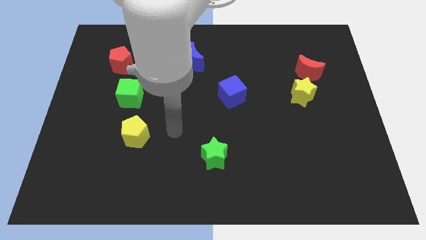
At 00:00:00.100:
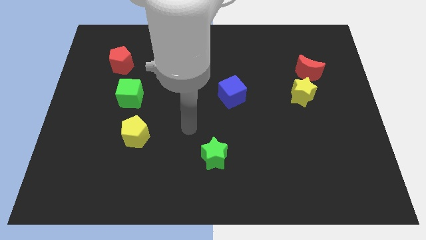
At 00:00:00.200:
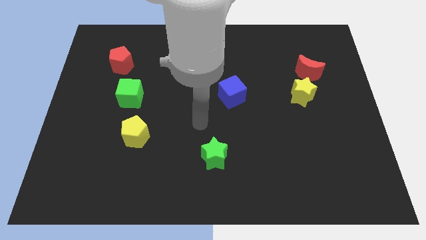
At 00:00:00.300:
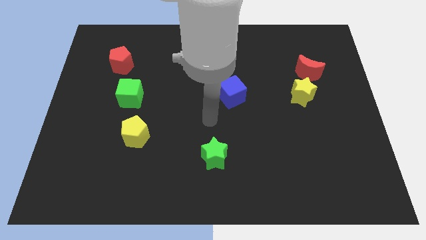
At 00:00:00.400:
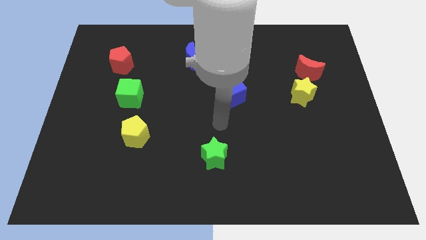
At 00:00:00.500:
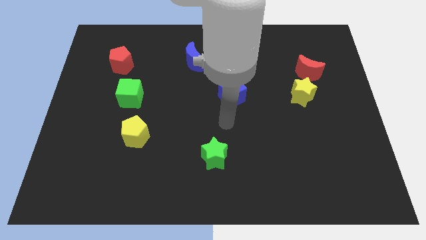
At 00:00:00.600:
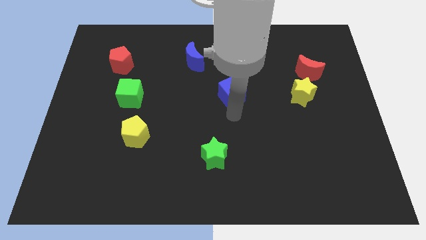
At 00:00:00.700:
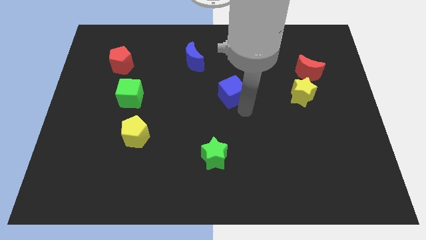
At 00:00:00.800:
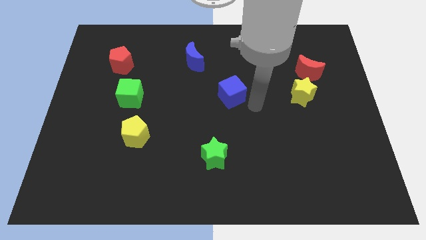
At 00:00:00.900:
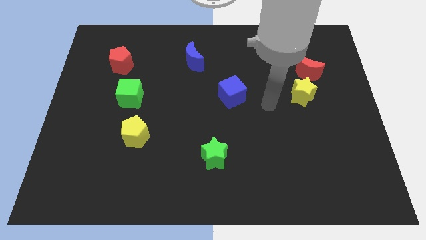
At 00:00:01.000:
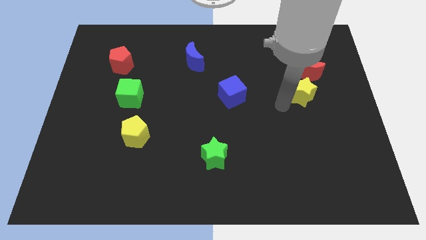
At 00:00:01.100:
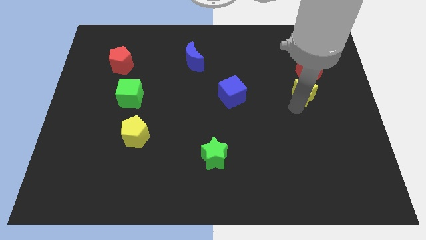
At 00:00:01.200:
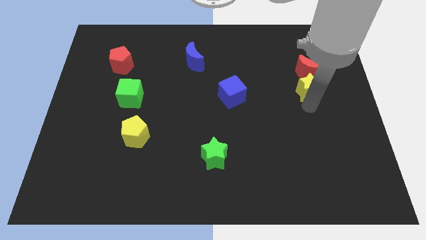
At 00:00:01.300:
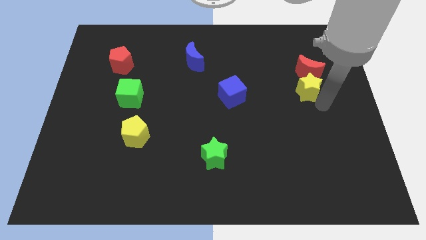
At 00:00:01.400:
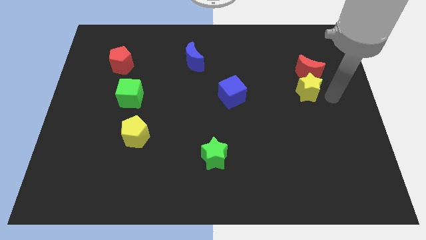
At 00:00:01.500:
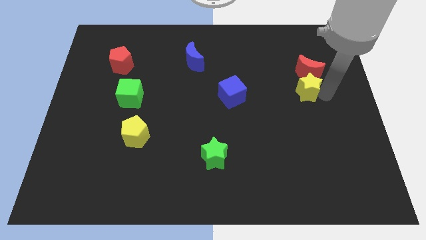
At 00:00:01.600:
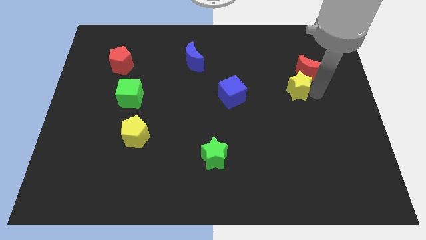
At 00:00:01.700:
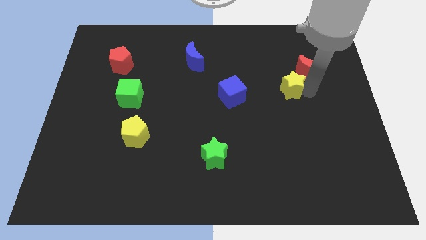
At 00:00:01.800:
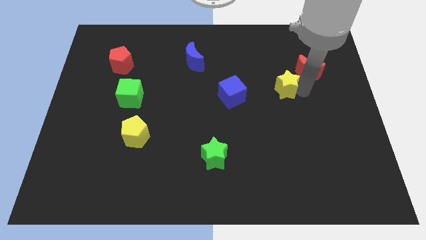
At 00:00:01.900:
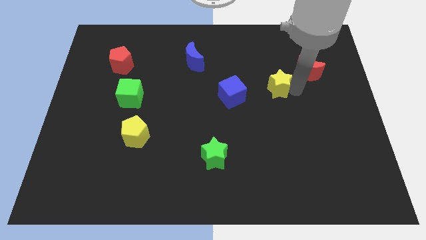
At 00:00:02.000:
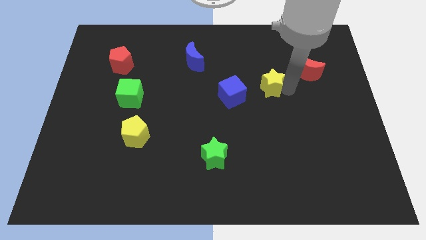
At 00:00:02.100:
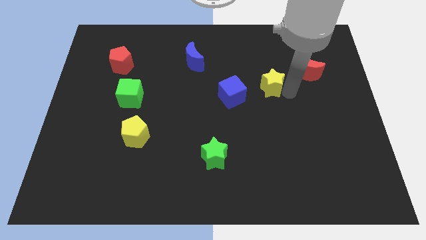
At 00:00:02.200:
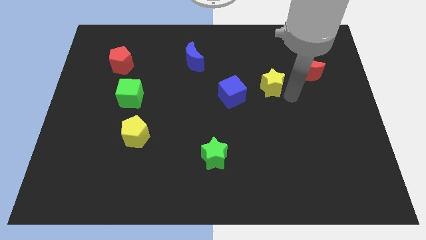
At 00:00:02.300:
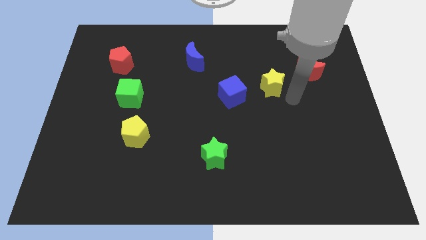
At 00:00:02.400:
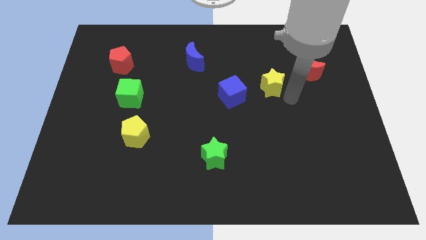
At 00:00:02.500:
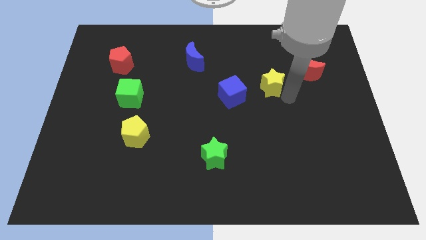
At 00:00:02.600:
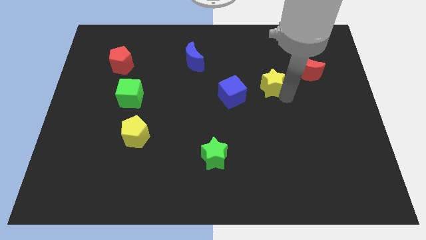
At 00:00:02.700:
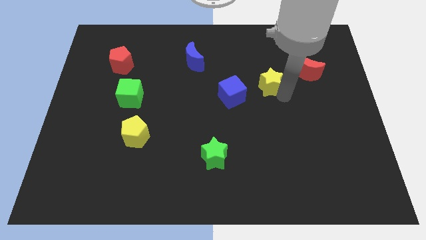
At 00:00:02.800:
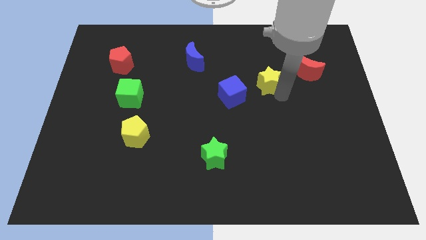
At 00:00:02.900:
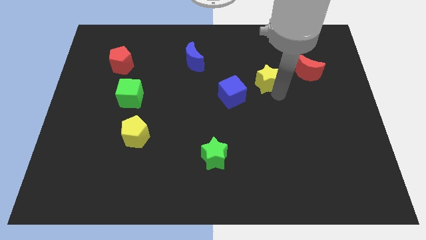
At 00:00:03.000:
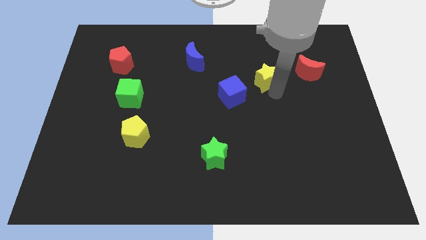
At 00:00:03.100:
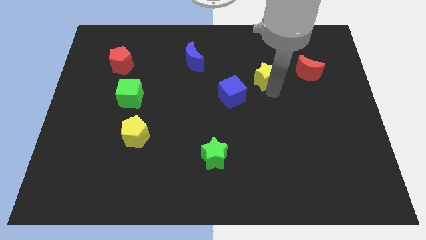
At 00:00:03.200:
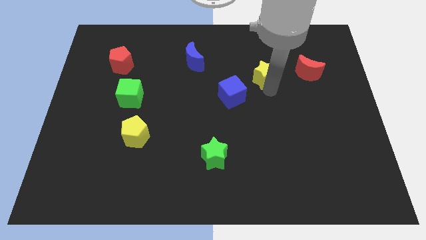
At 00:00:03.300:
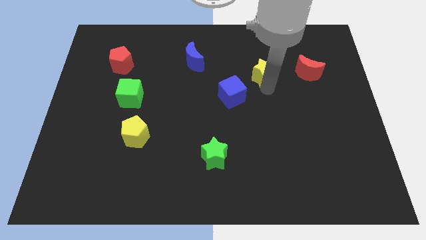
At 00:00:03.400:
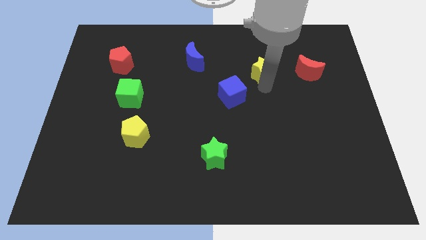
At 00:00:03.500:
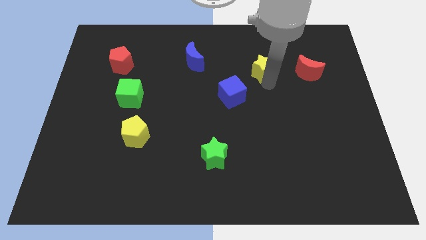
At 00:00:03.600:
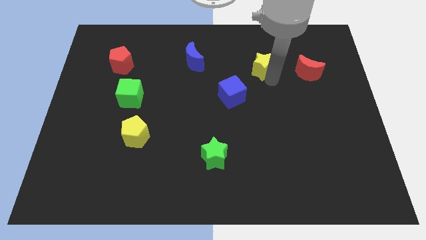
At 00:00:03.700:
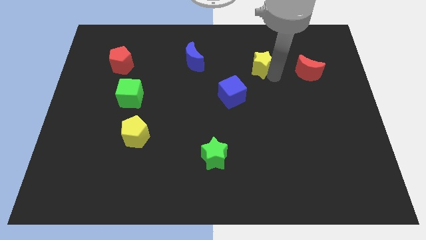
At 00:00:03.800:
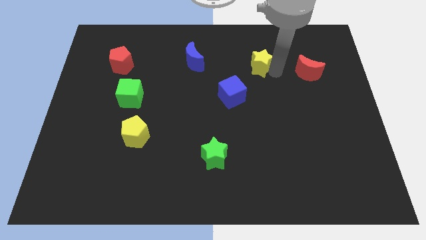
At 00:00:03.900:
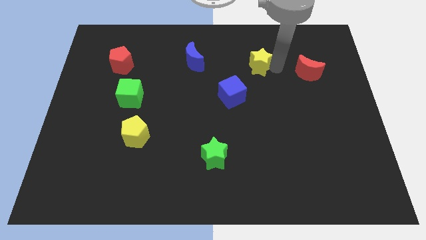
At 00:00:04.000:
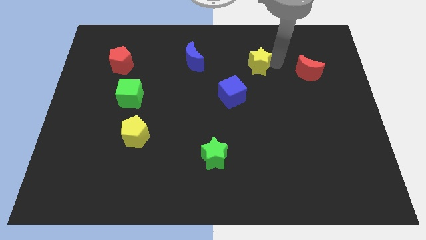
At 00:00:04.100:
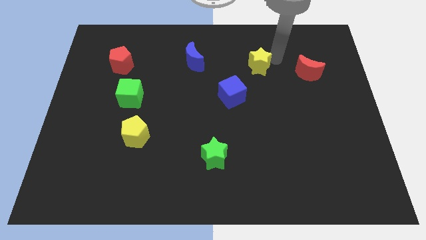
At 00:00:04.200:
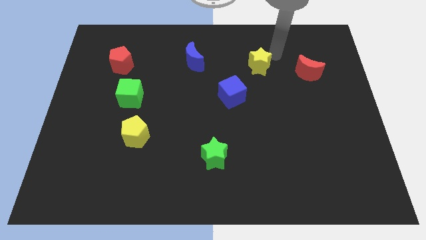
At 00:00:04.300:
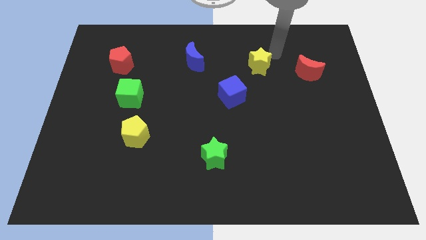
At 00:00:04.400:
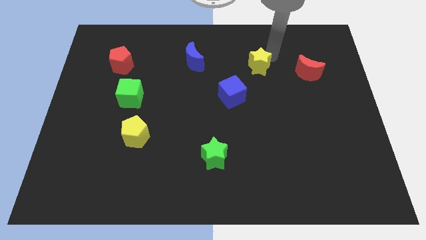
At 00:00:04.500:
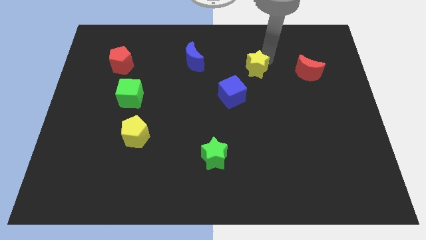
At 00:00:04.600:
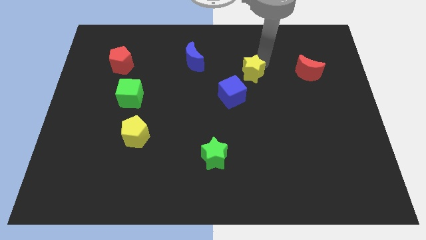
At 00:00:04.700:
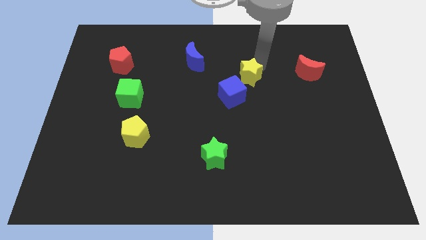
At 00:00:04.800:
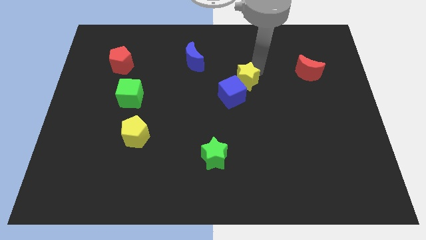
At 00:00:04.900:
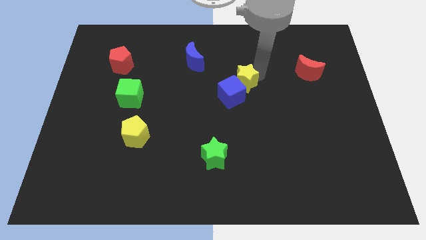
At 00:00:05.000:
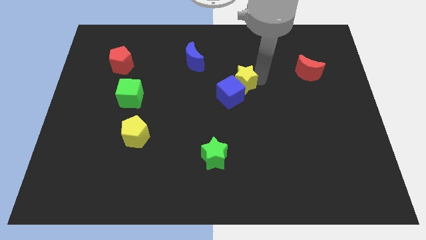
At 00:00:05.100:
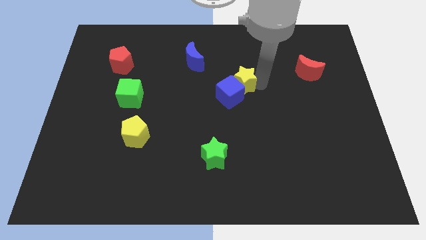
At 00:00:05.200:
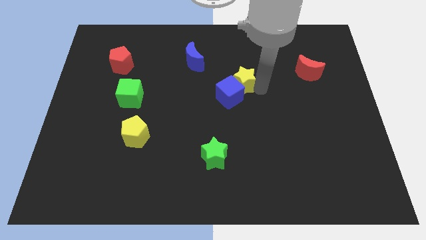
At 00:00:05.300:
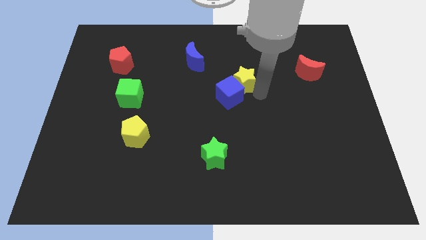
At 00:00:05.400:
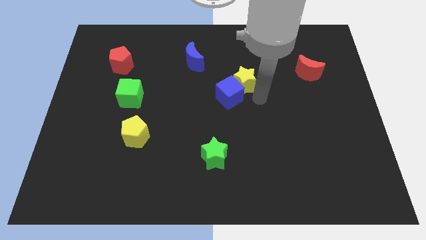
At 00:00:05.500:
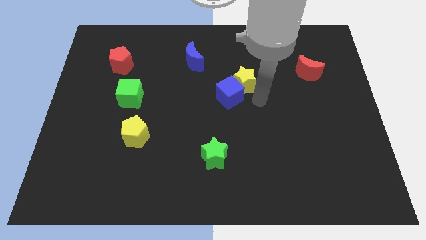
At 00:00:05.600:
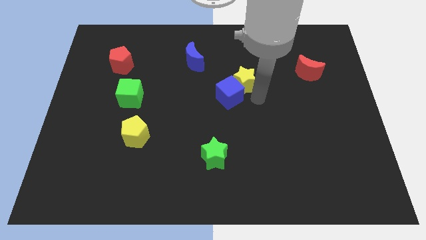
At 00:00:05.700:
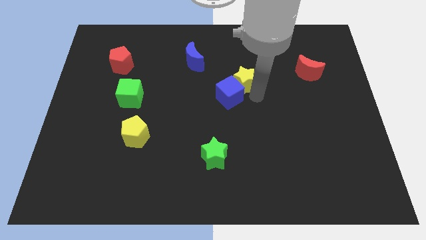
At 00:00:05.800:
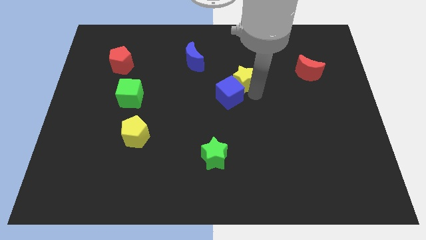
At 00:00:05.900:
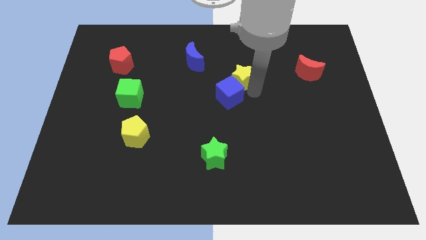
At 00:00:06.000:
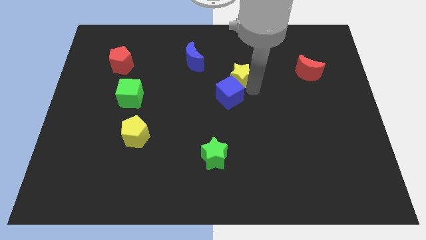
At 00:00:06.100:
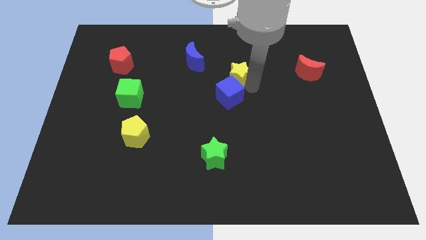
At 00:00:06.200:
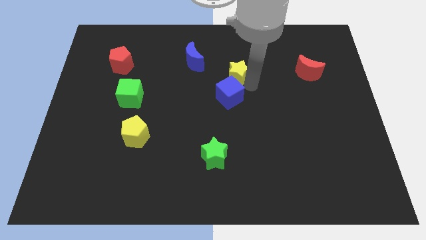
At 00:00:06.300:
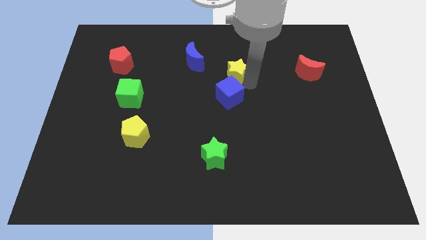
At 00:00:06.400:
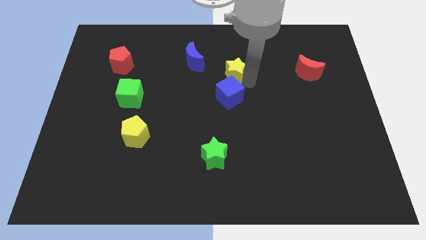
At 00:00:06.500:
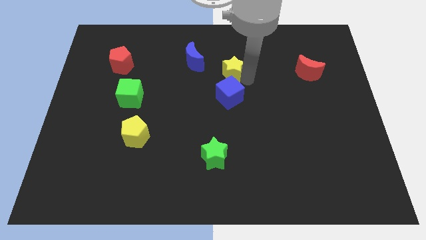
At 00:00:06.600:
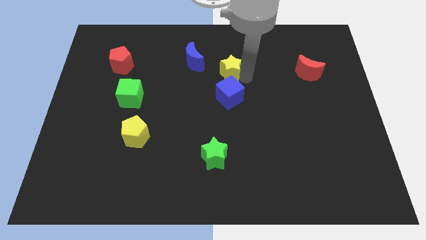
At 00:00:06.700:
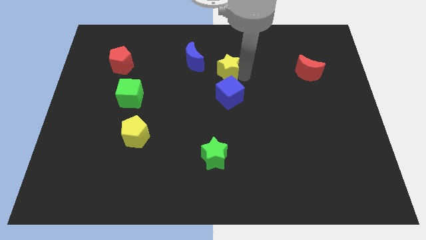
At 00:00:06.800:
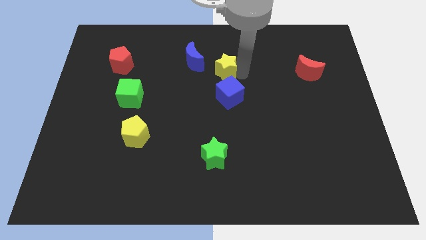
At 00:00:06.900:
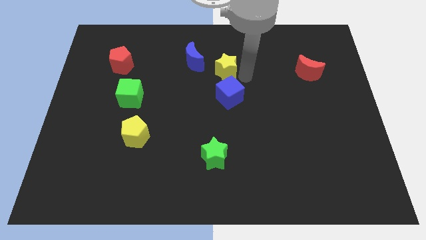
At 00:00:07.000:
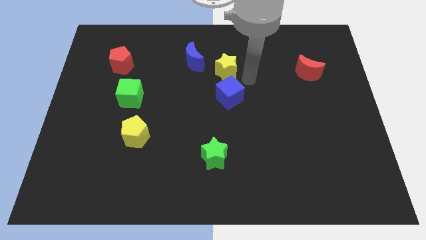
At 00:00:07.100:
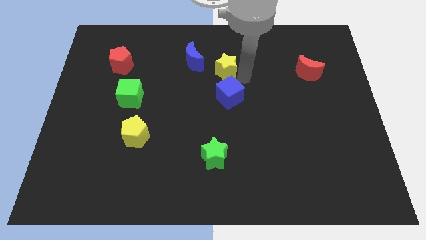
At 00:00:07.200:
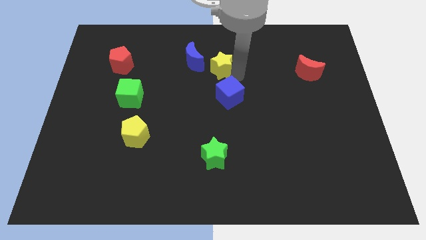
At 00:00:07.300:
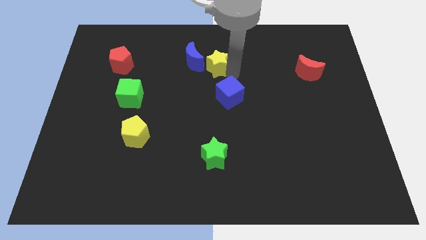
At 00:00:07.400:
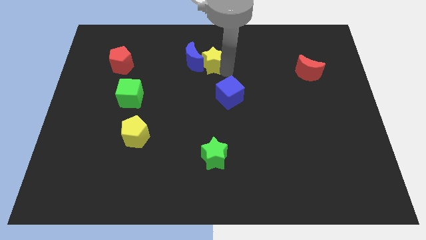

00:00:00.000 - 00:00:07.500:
put the yellow star next to the blue moon
